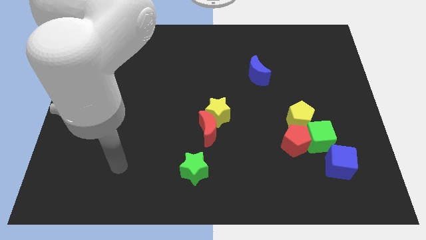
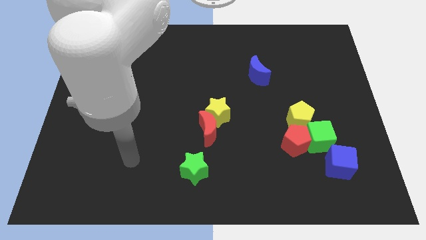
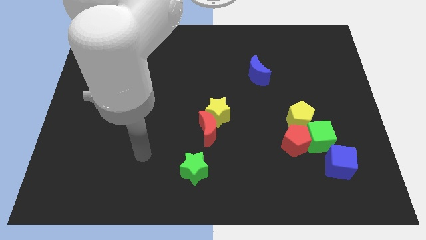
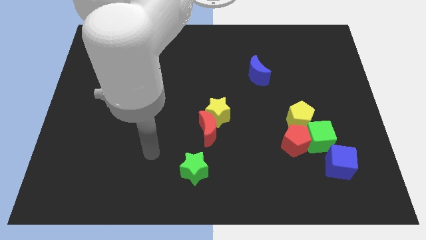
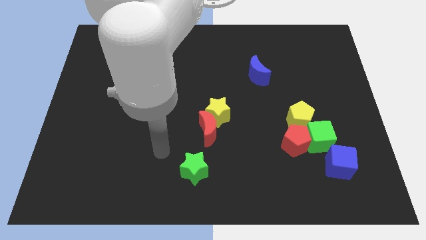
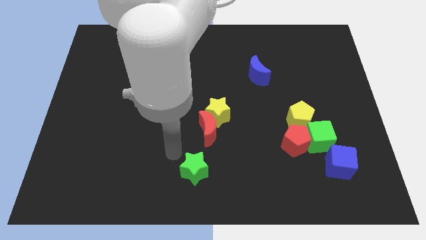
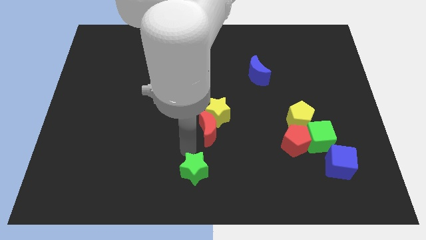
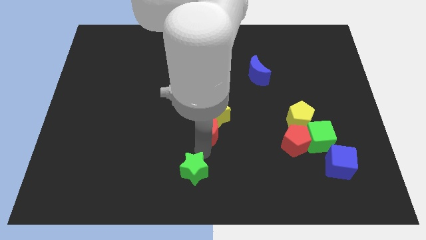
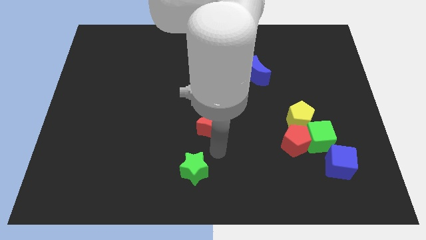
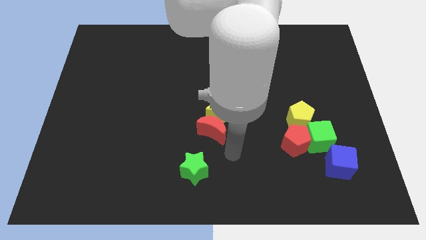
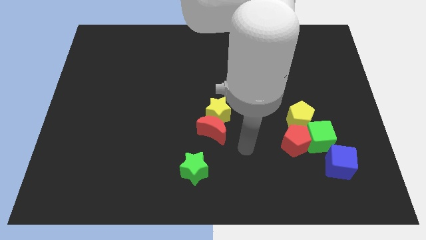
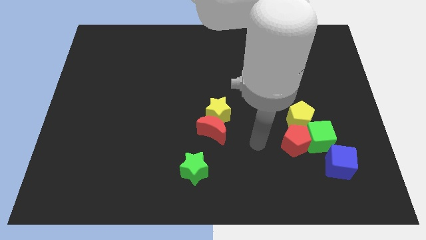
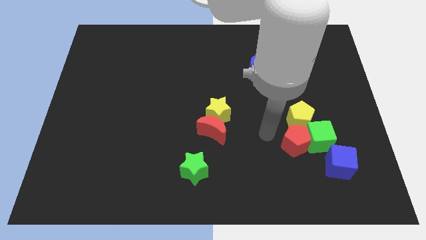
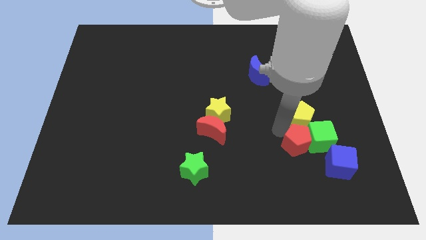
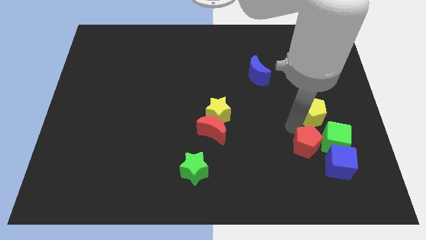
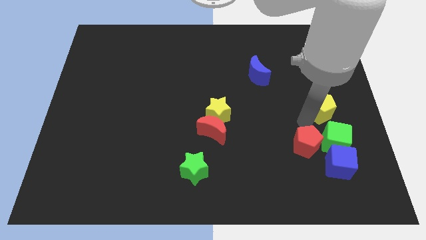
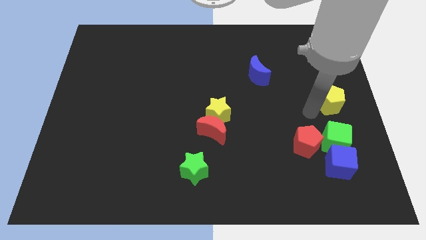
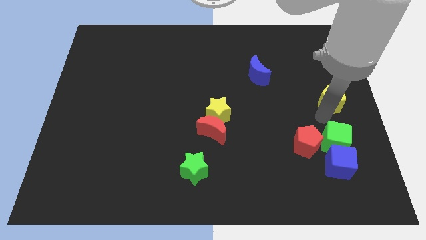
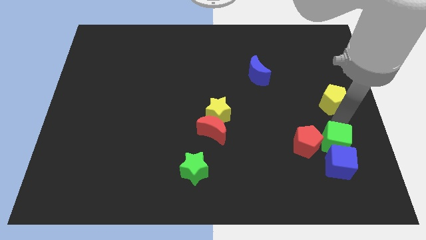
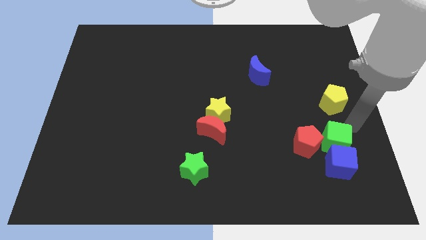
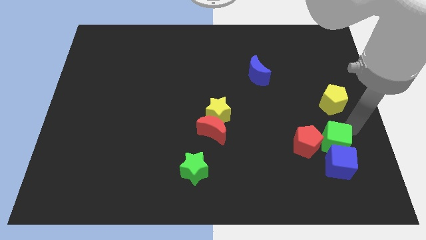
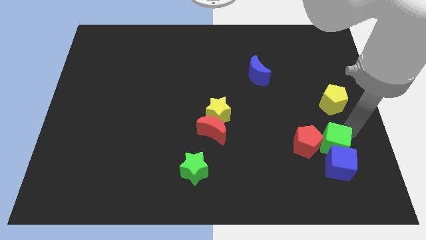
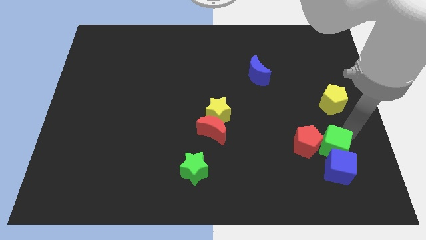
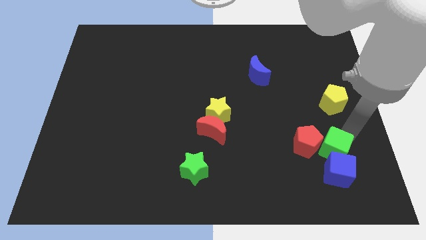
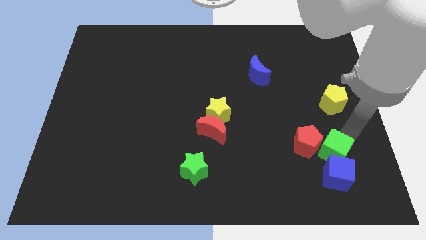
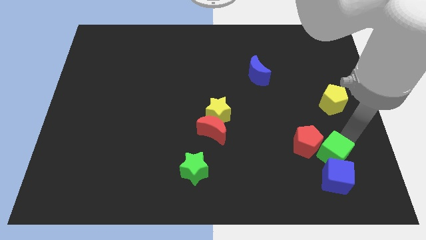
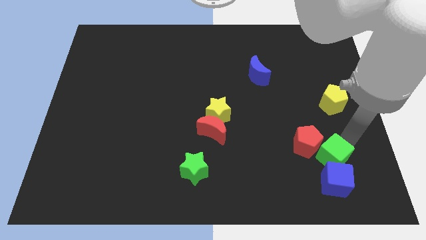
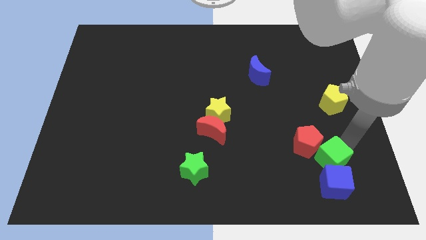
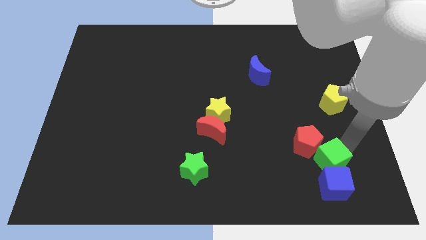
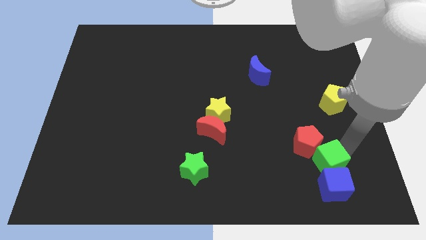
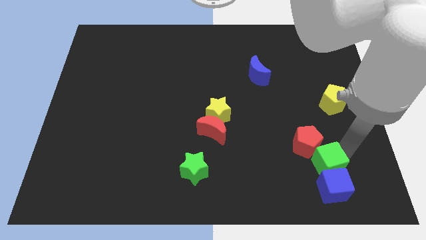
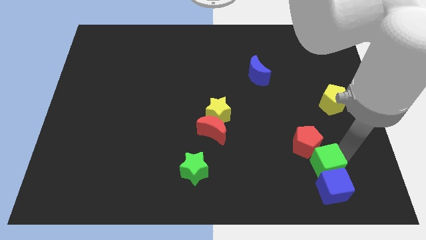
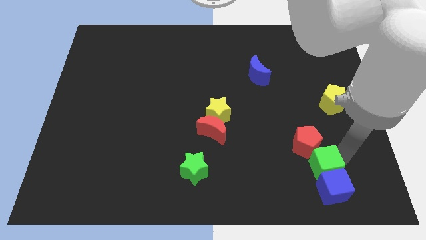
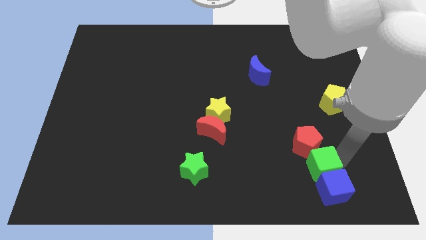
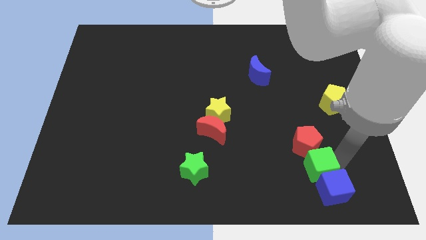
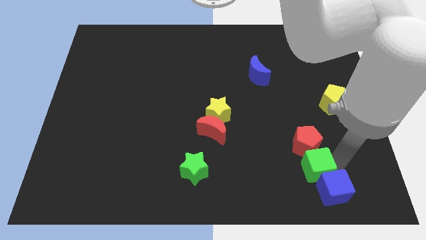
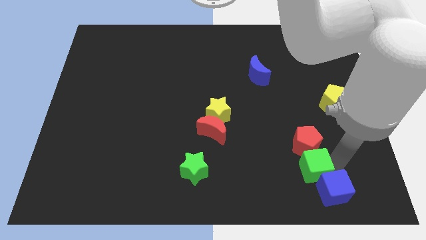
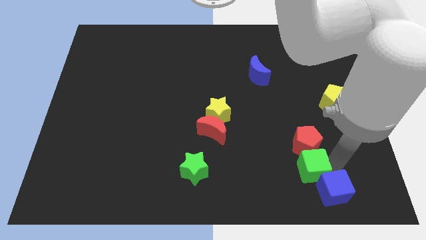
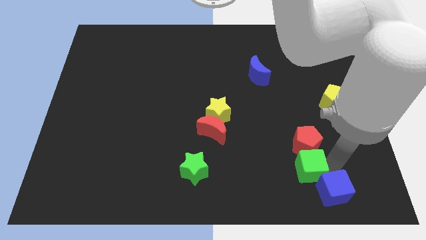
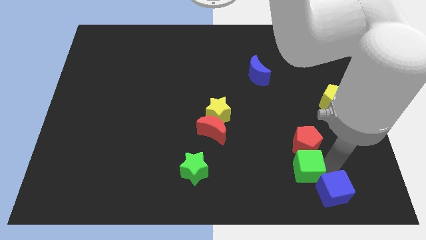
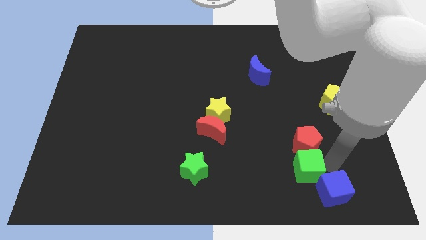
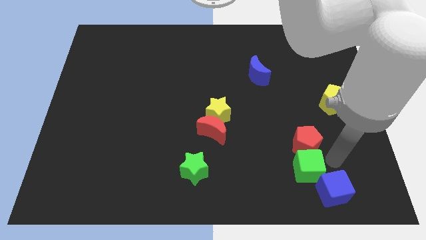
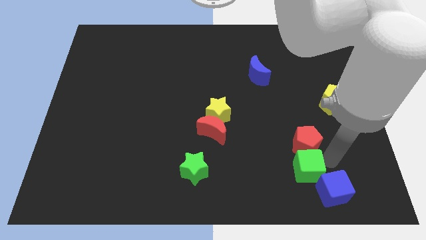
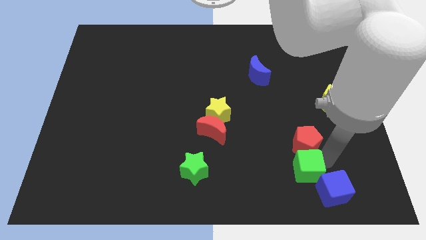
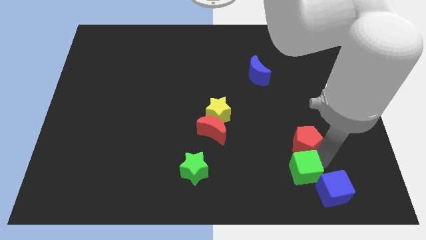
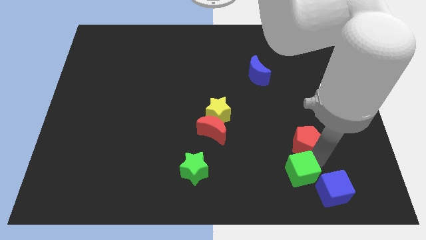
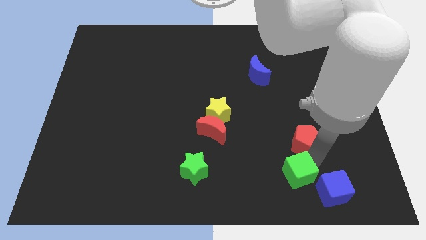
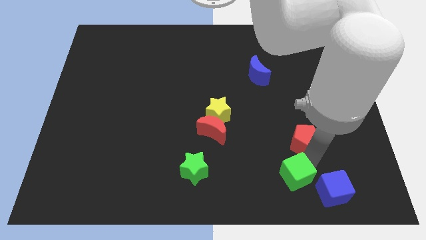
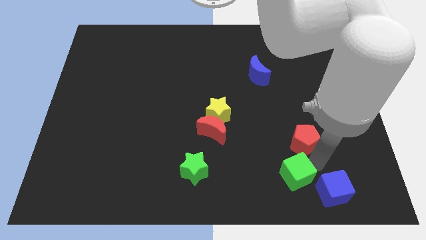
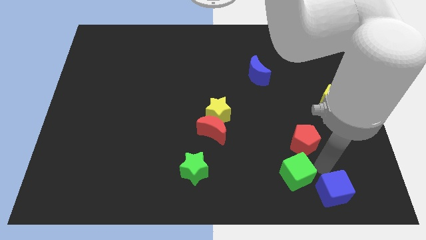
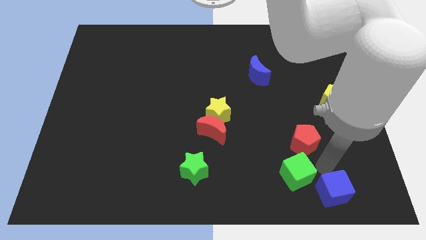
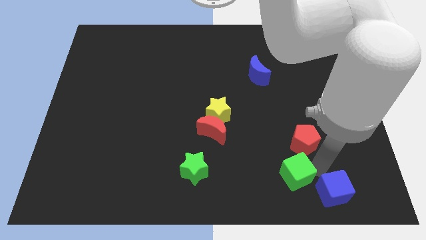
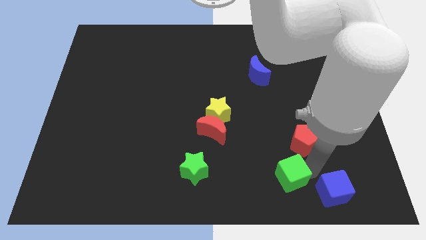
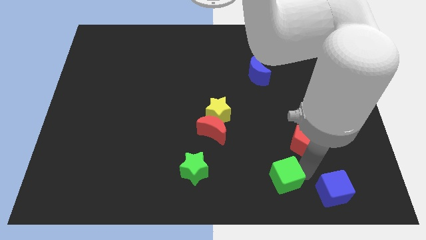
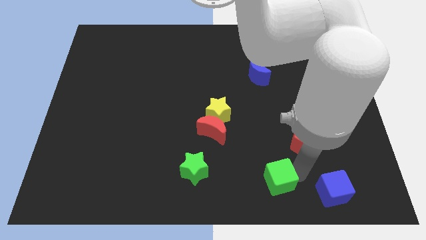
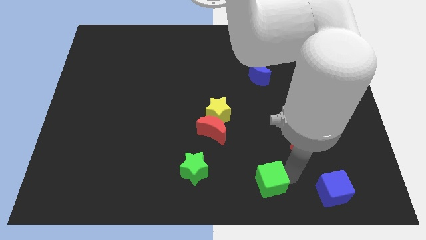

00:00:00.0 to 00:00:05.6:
slide the green cube to the bottom

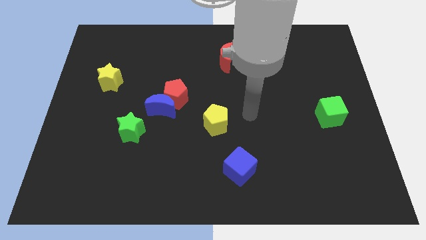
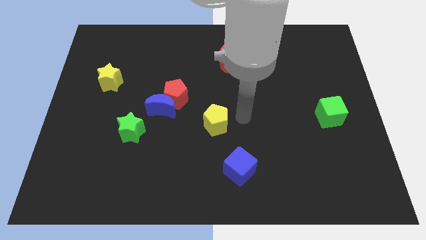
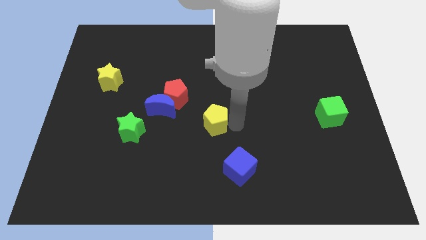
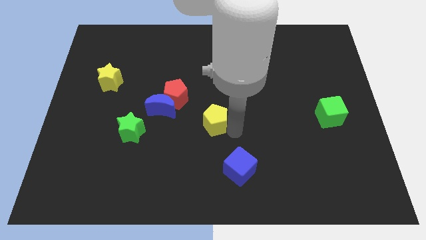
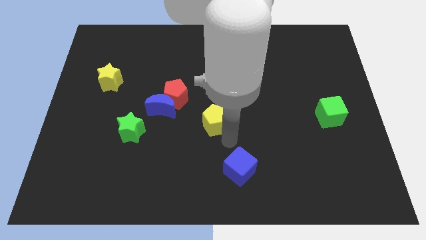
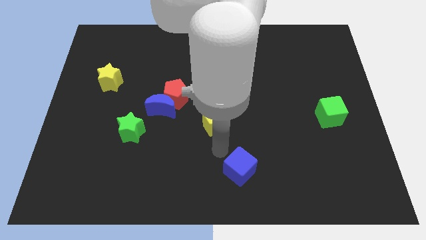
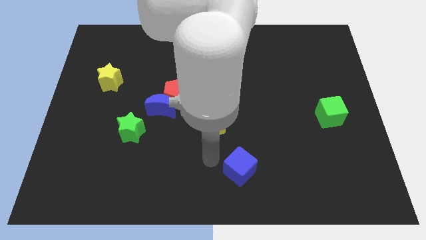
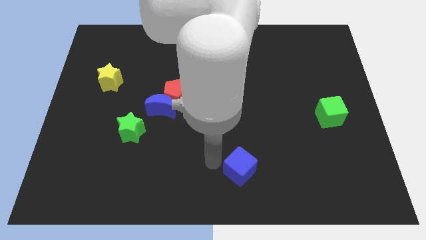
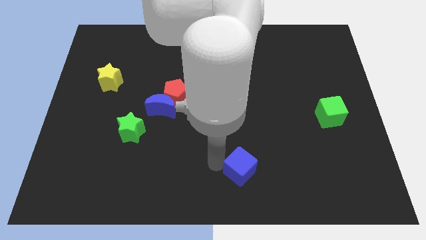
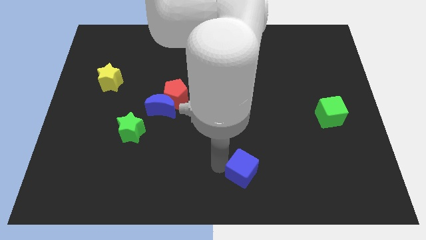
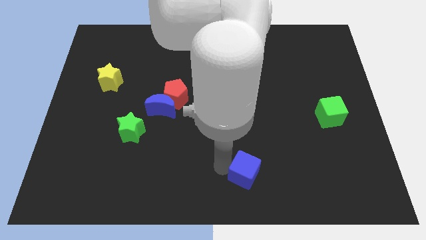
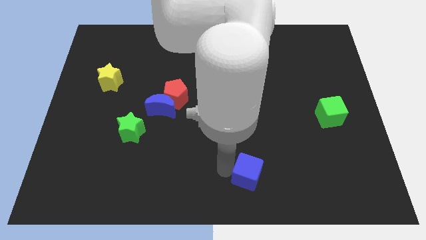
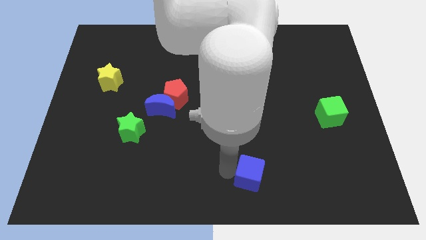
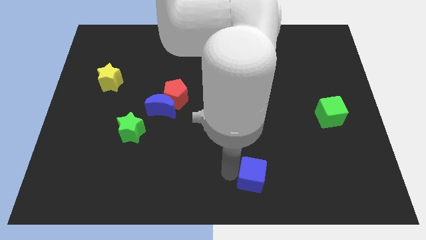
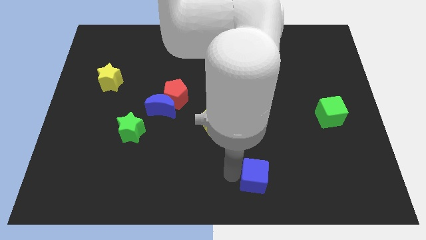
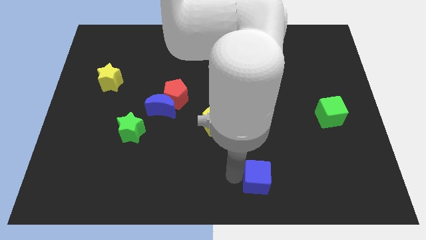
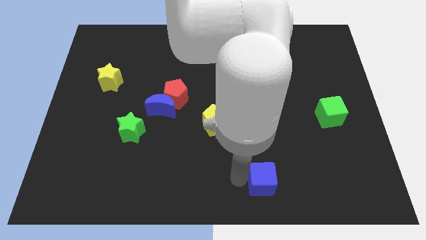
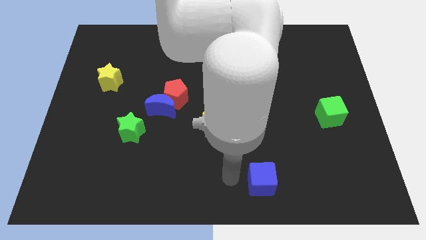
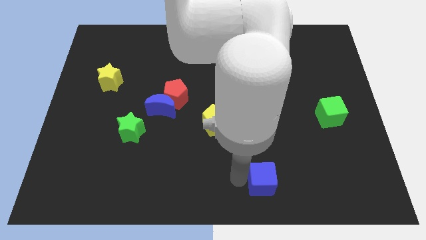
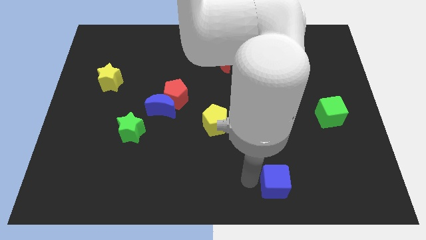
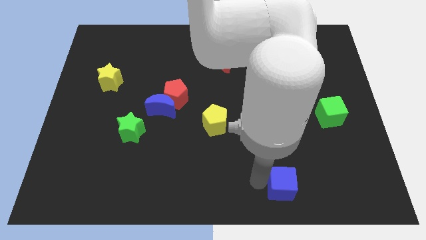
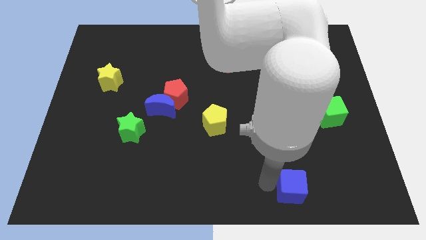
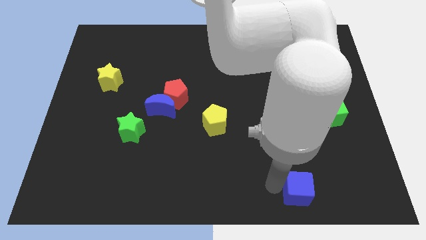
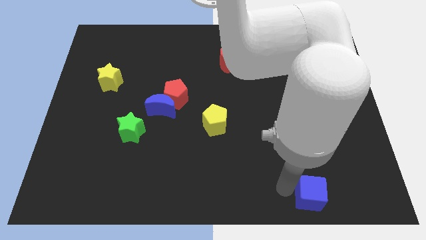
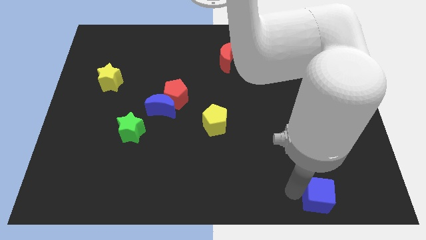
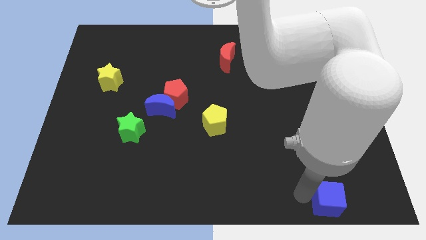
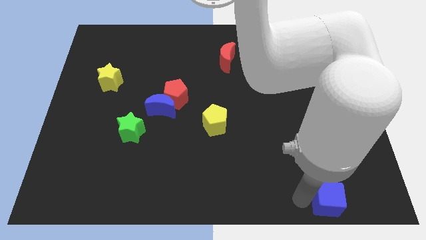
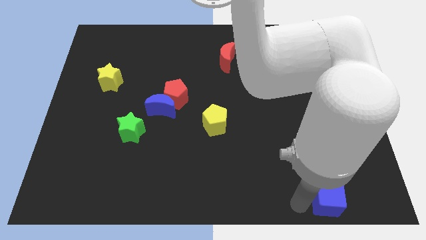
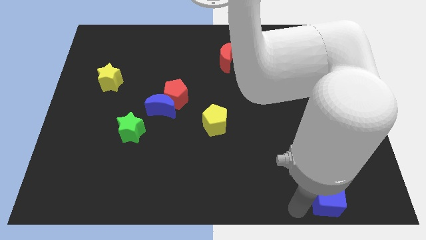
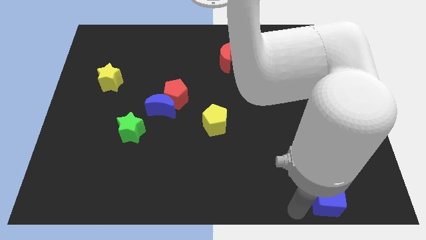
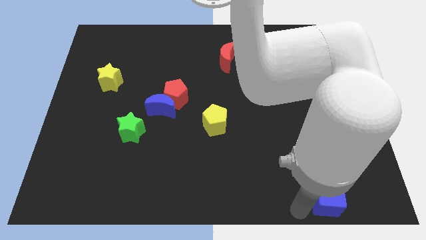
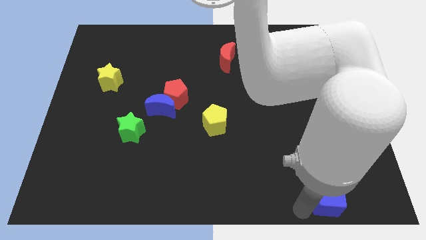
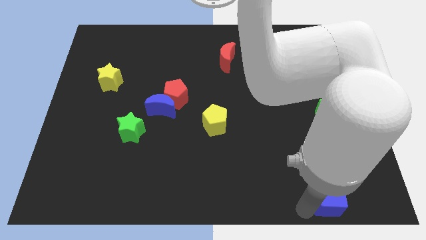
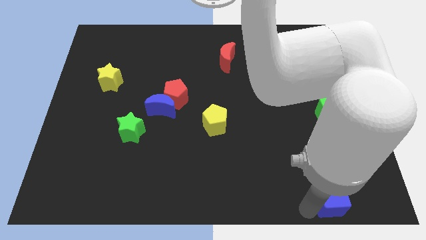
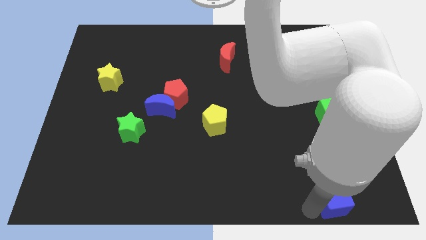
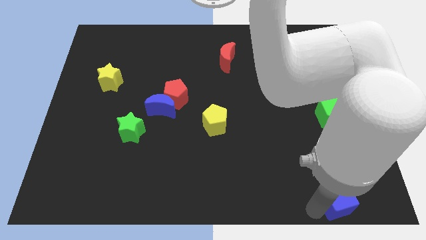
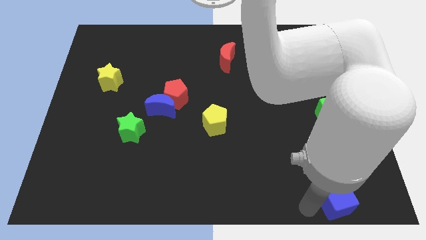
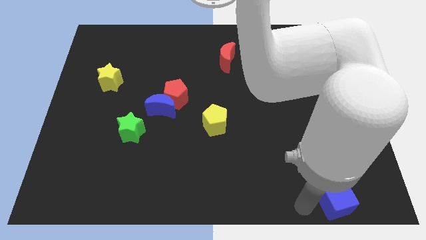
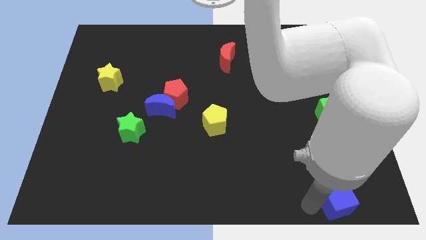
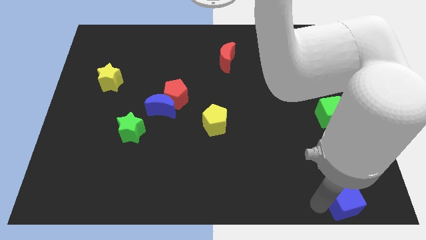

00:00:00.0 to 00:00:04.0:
slide the blue cube to the bottom right of the board
